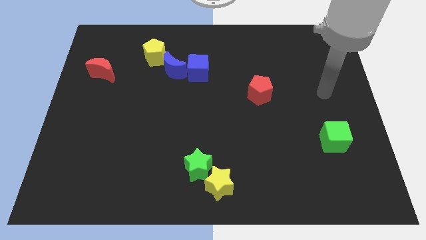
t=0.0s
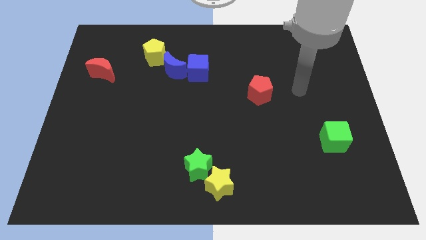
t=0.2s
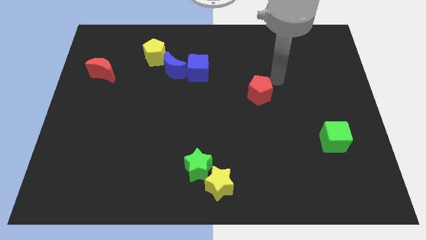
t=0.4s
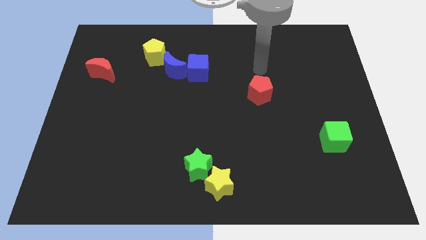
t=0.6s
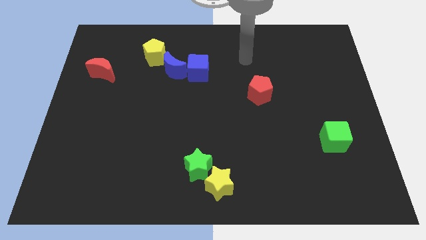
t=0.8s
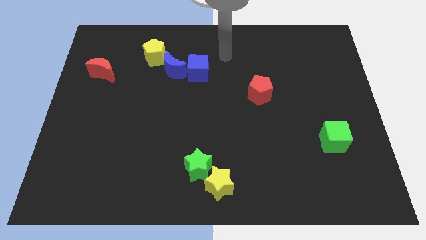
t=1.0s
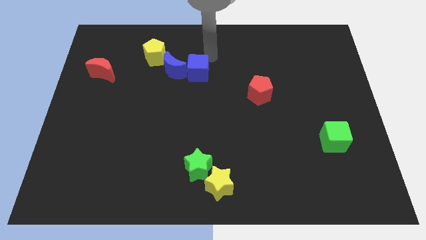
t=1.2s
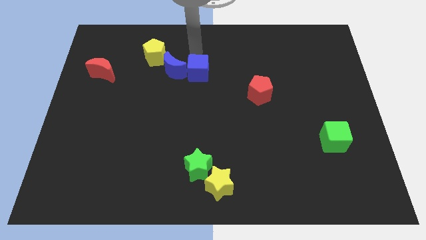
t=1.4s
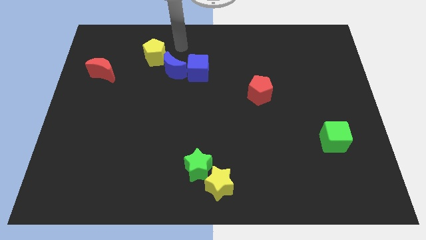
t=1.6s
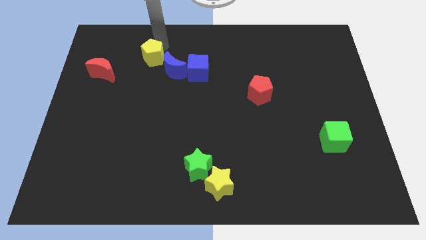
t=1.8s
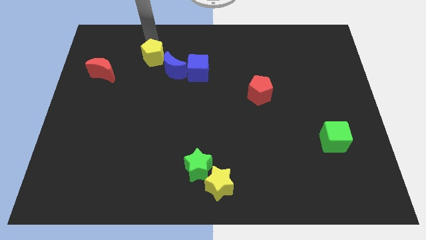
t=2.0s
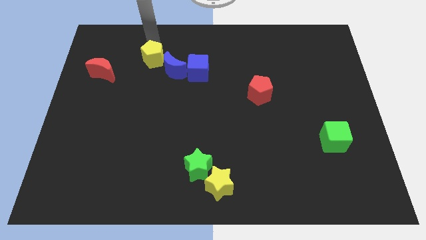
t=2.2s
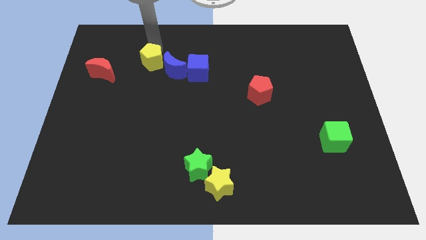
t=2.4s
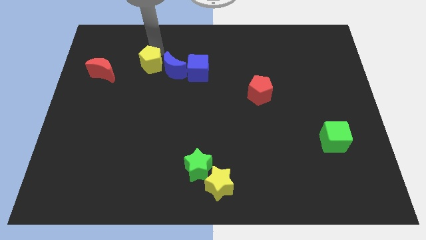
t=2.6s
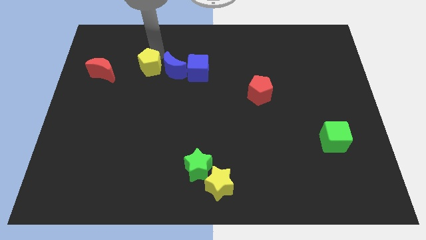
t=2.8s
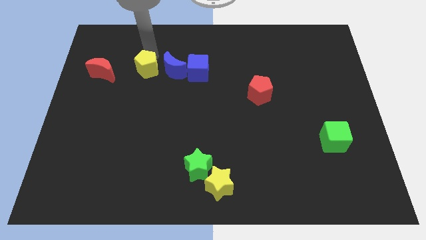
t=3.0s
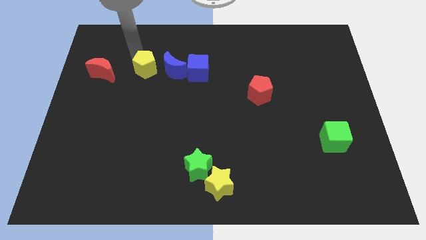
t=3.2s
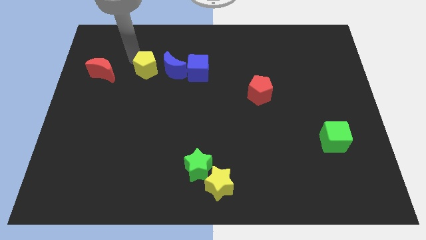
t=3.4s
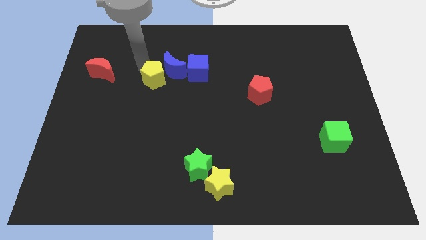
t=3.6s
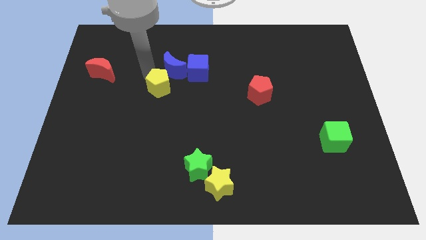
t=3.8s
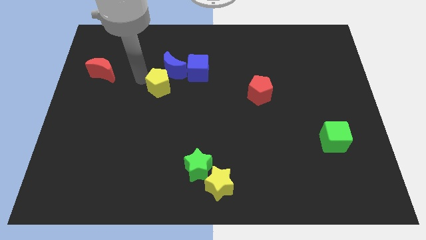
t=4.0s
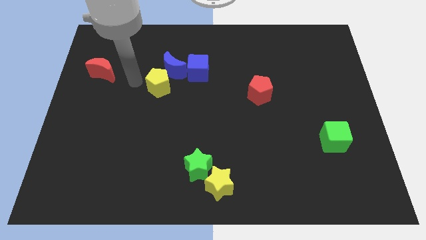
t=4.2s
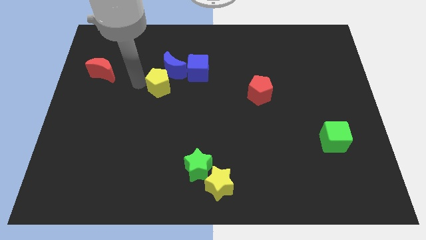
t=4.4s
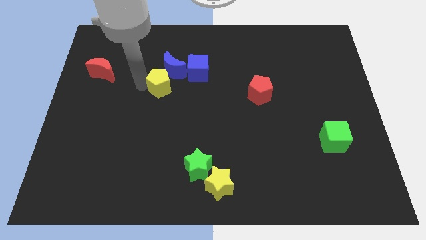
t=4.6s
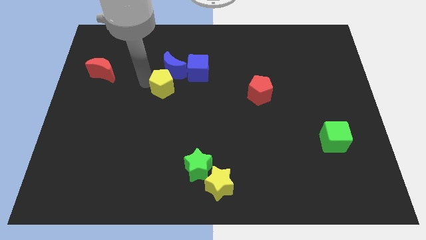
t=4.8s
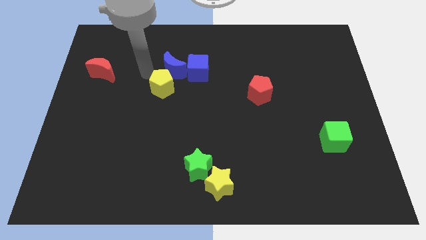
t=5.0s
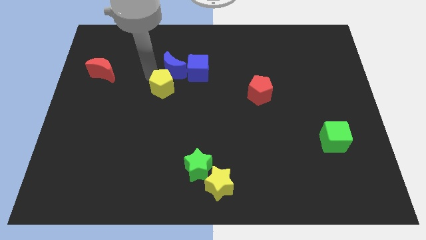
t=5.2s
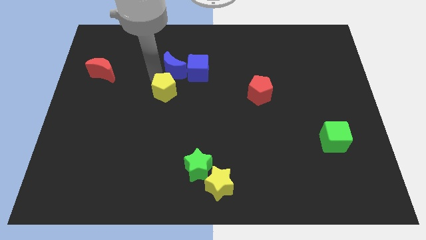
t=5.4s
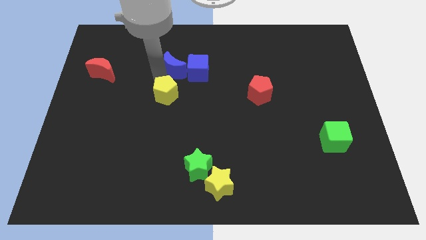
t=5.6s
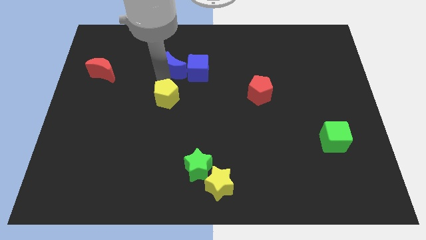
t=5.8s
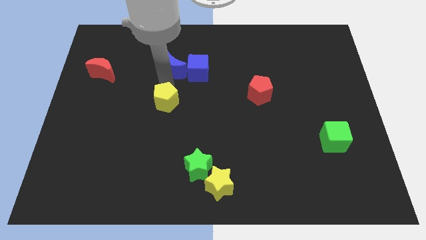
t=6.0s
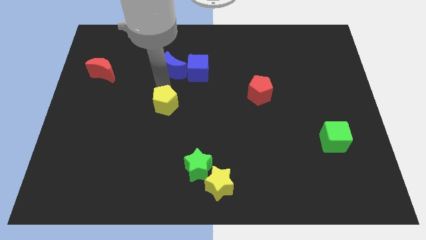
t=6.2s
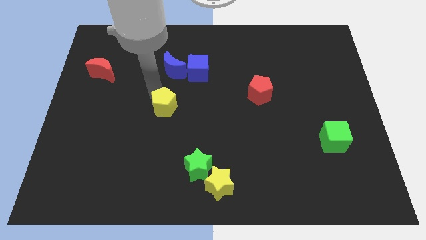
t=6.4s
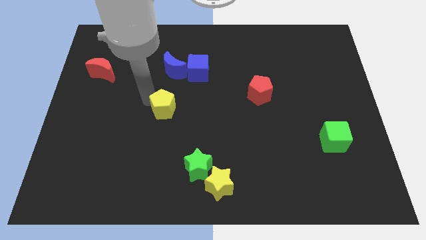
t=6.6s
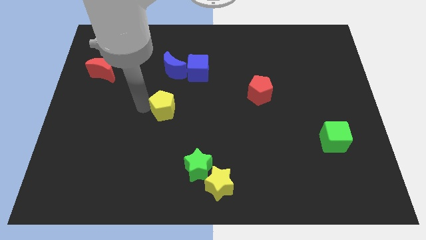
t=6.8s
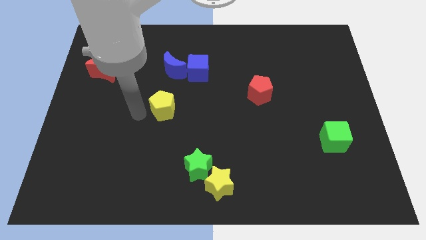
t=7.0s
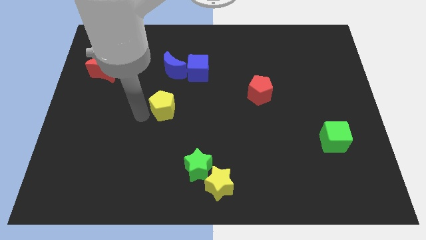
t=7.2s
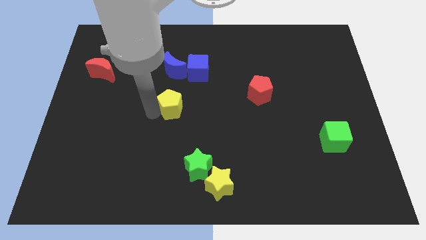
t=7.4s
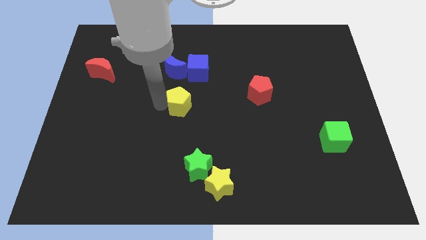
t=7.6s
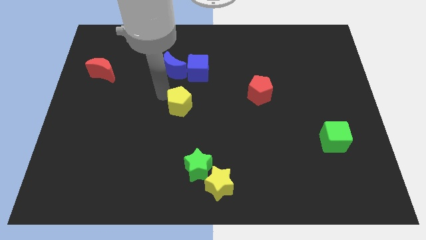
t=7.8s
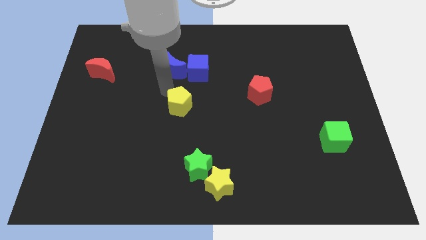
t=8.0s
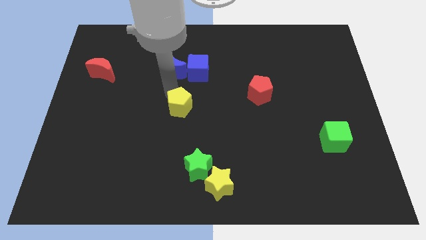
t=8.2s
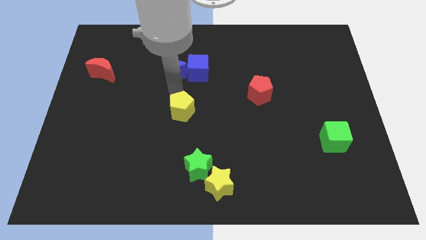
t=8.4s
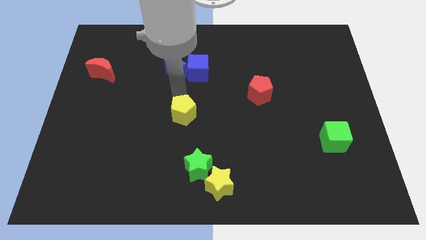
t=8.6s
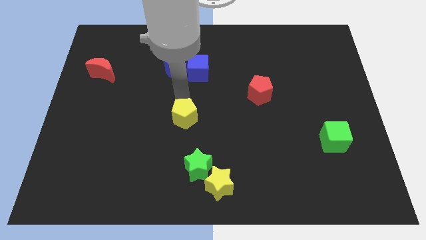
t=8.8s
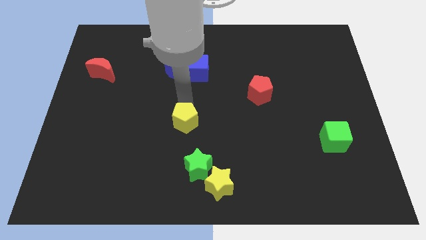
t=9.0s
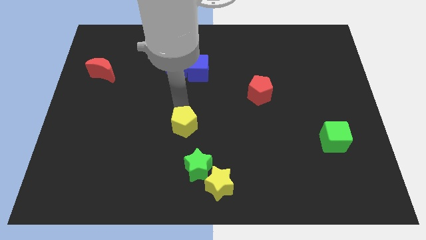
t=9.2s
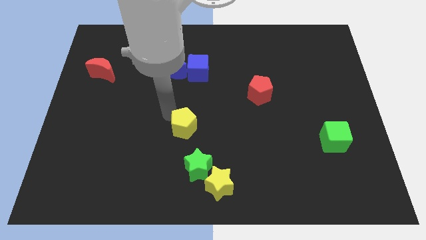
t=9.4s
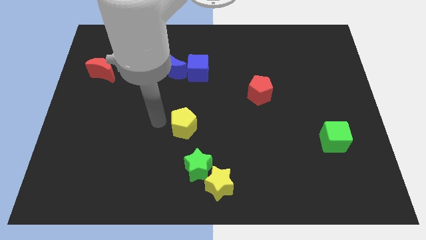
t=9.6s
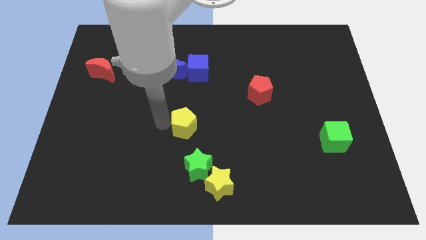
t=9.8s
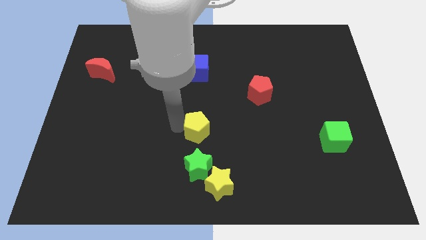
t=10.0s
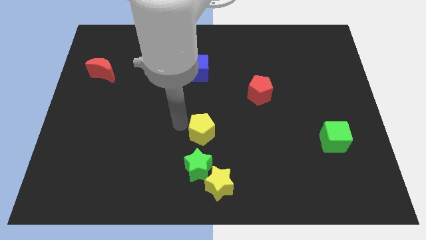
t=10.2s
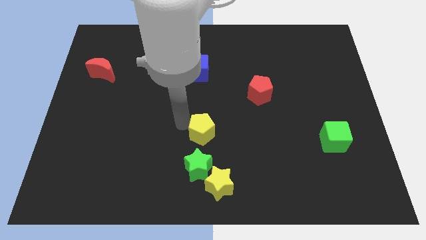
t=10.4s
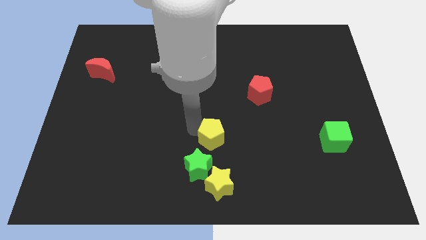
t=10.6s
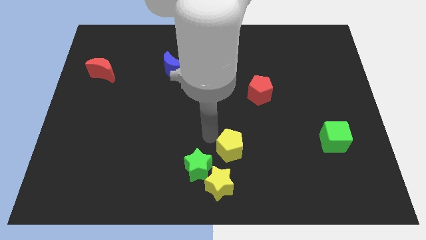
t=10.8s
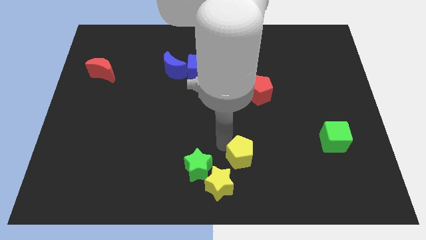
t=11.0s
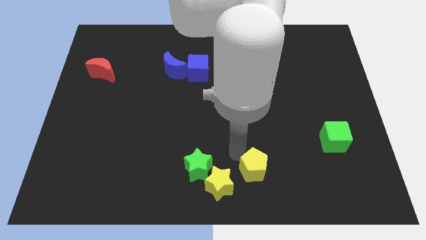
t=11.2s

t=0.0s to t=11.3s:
move the yellow pentagon to the right of the yellow star

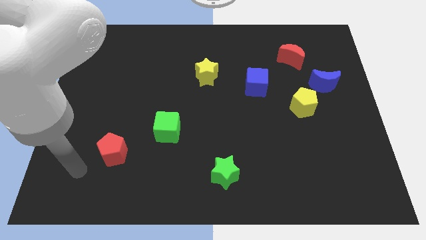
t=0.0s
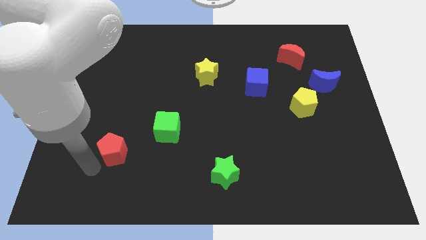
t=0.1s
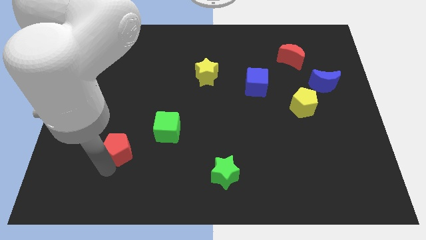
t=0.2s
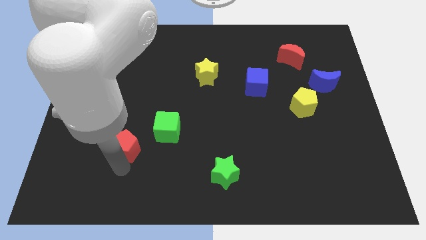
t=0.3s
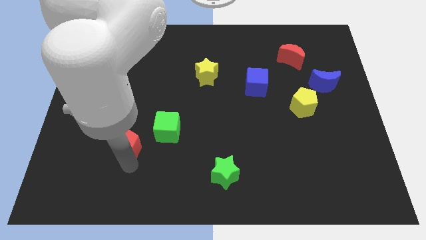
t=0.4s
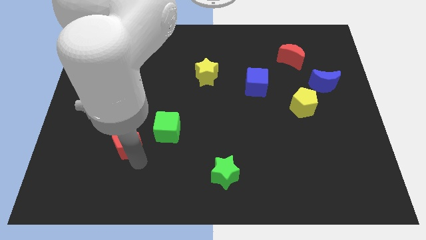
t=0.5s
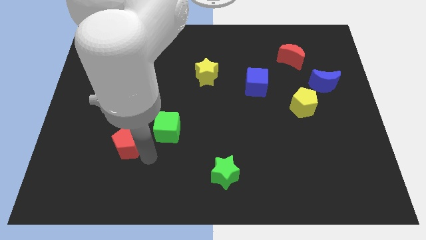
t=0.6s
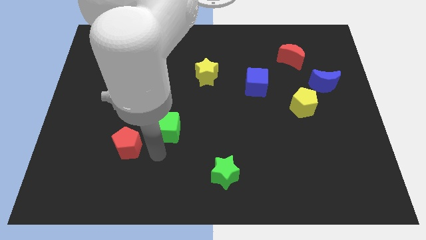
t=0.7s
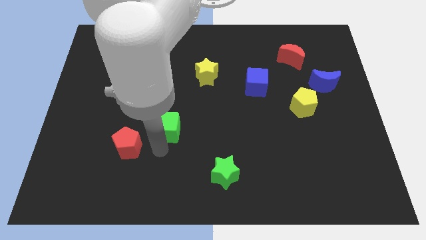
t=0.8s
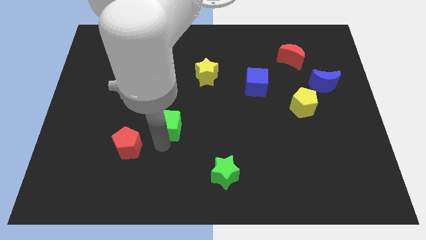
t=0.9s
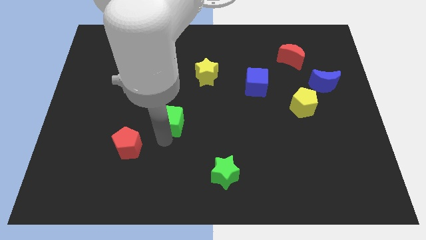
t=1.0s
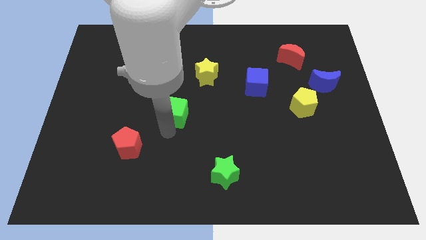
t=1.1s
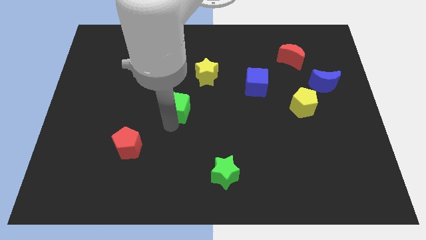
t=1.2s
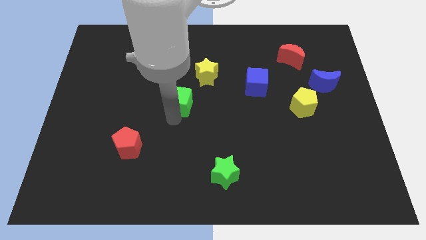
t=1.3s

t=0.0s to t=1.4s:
put the green cube to the bottom left side of the yellow star
